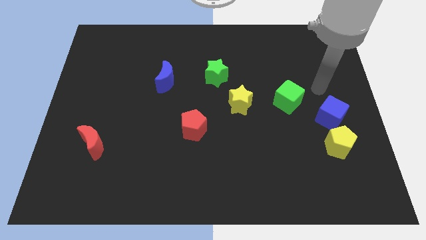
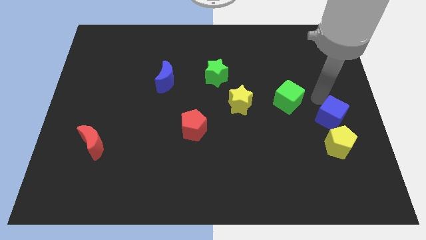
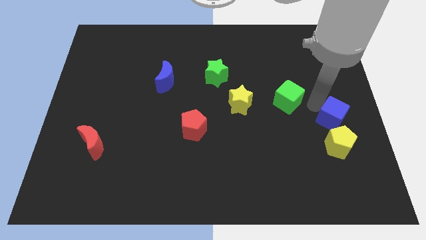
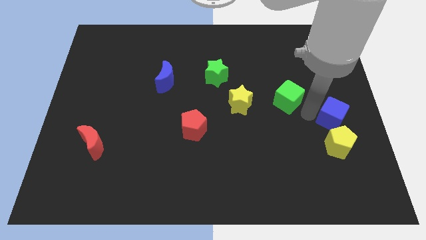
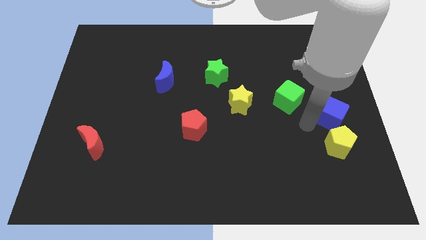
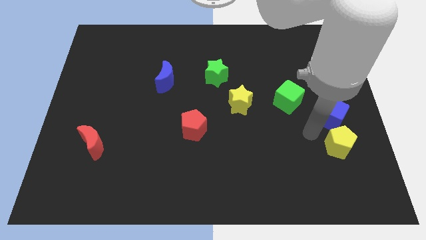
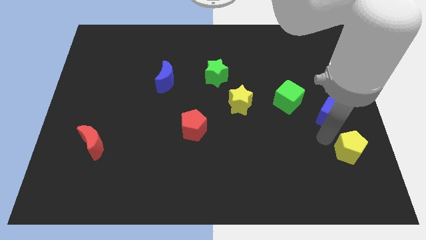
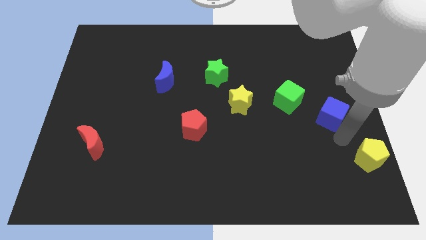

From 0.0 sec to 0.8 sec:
separate the blue cube from the yellow pentagon

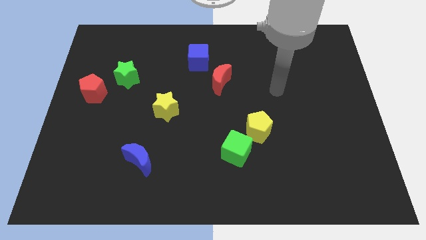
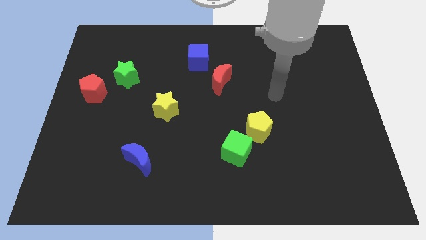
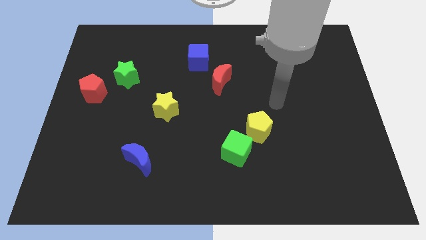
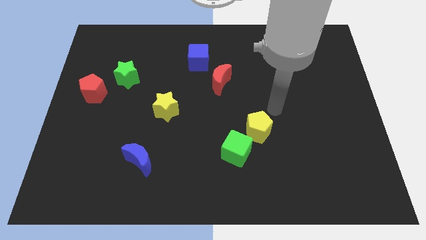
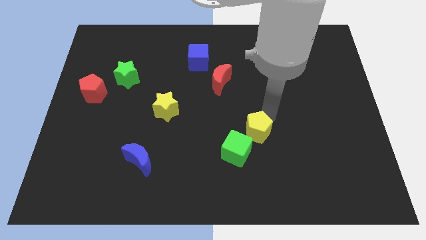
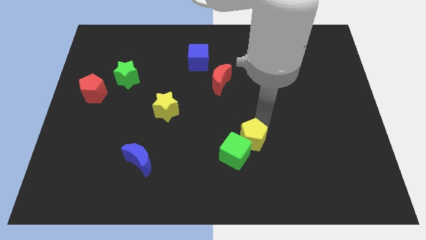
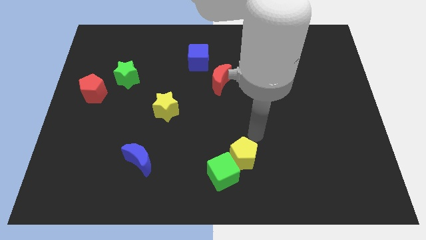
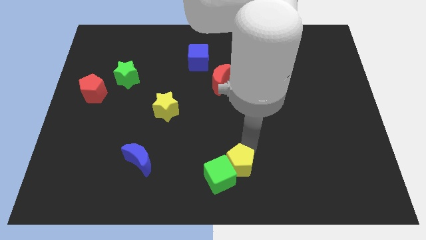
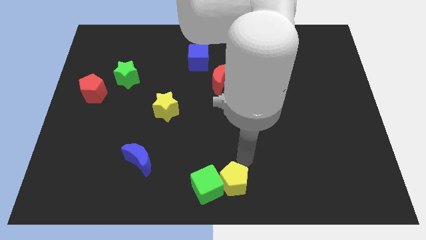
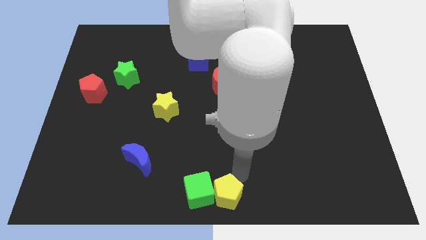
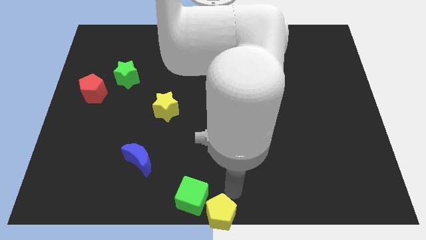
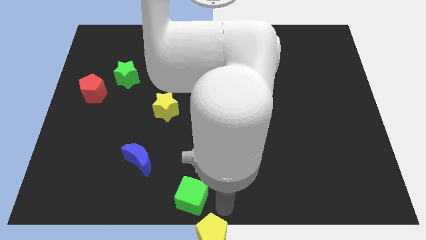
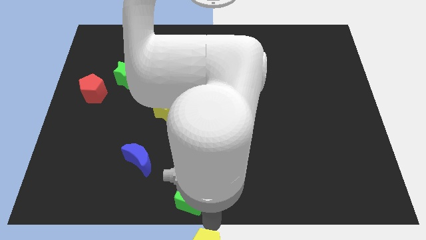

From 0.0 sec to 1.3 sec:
pull the green cube apart from the yellow pentagon

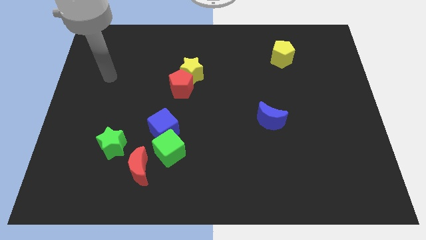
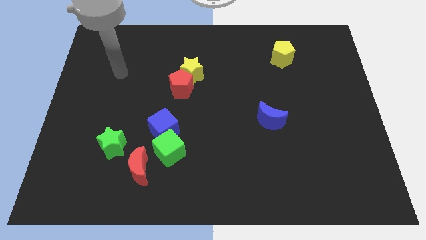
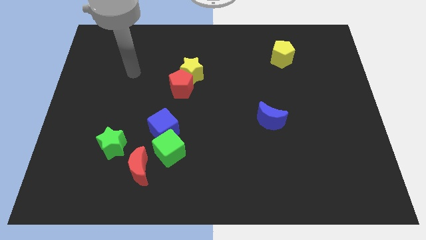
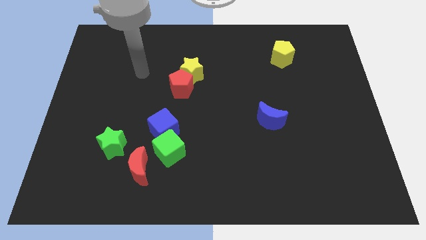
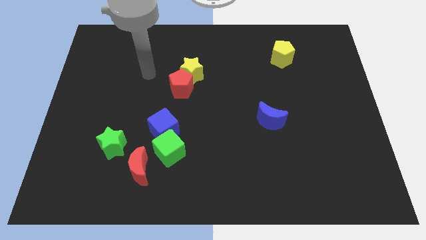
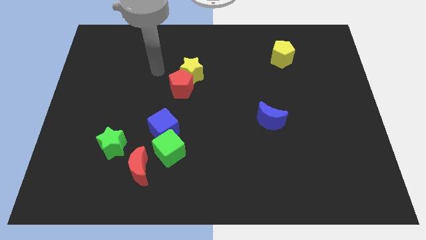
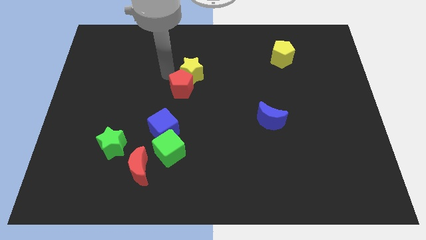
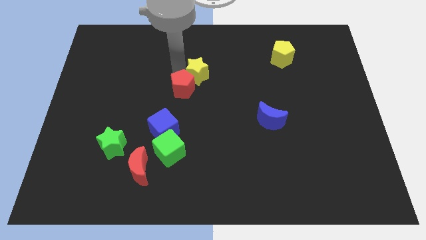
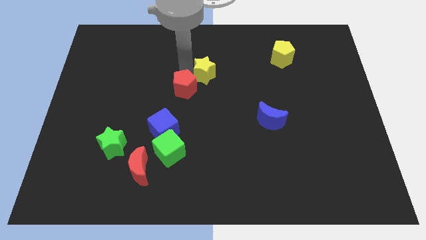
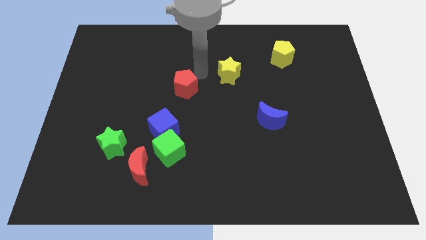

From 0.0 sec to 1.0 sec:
pull the red pentagon apart from the yellow star

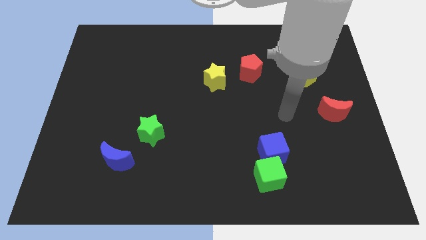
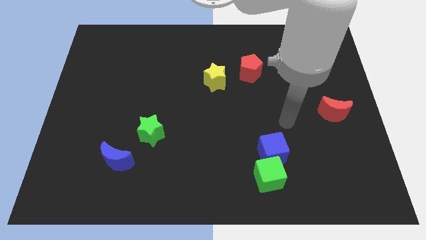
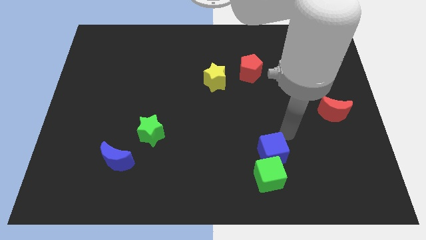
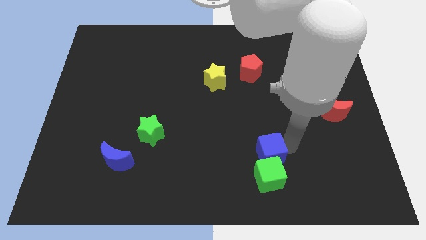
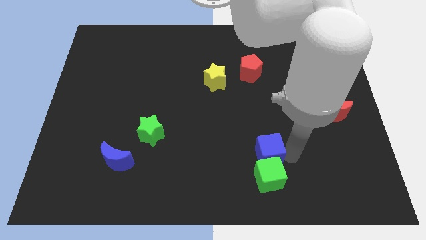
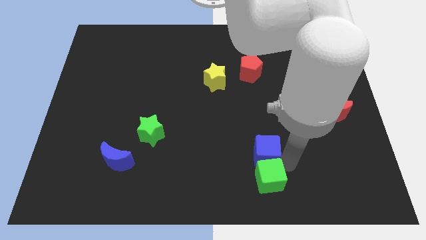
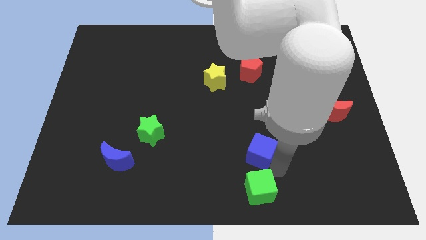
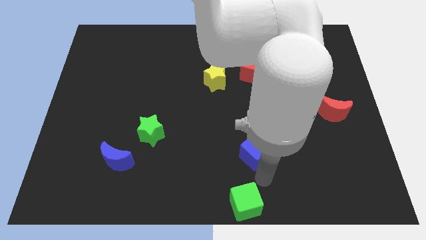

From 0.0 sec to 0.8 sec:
separate the blue cube from the green cube

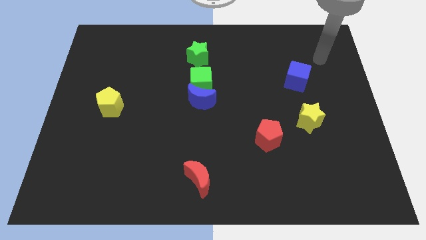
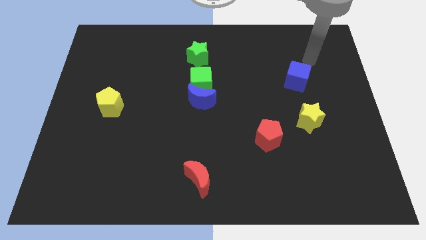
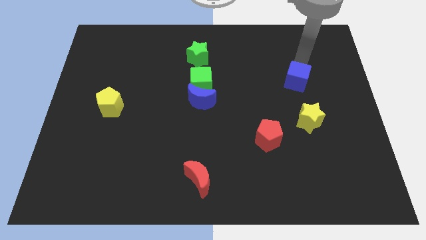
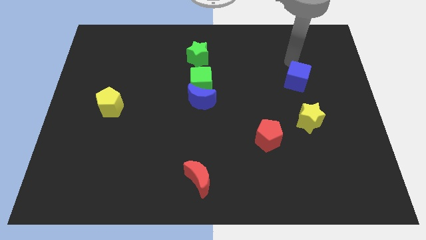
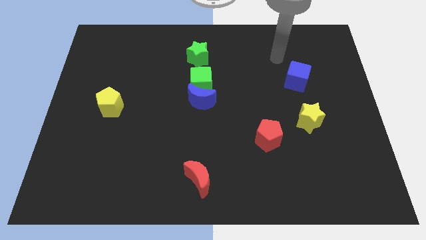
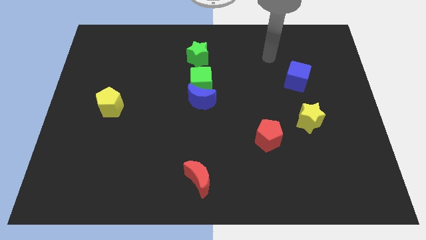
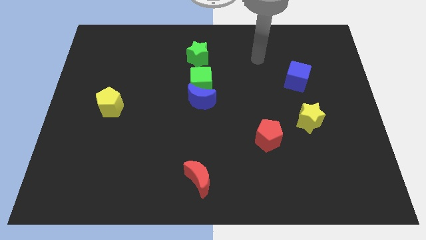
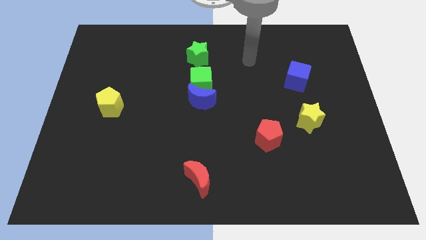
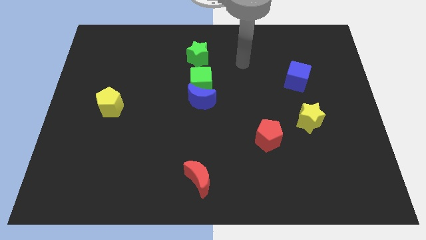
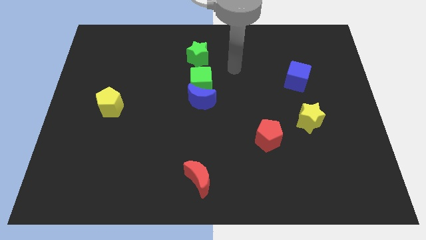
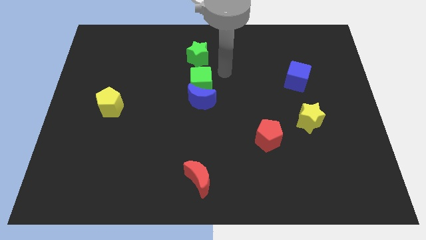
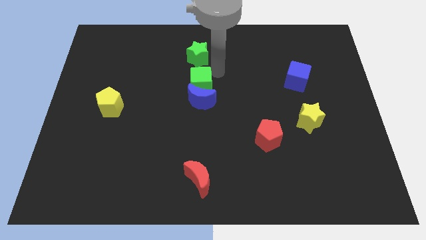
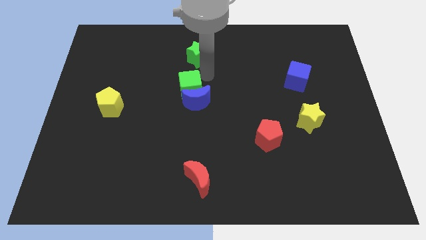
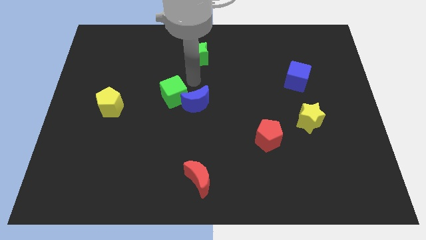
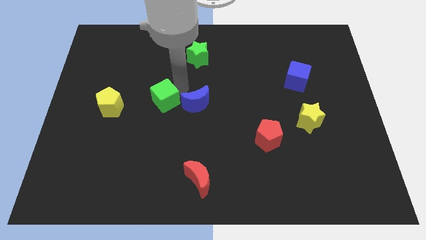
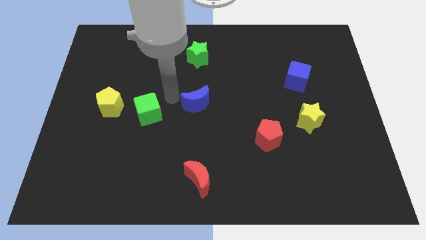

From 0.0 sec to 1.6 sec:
move the blue moon away from the green cube

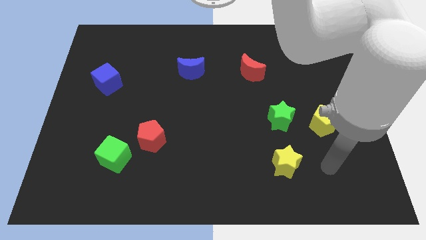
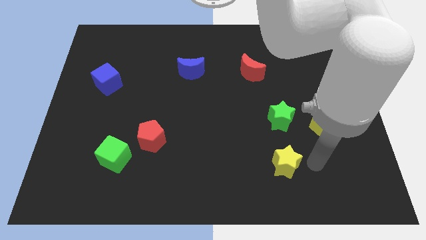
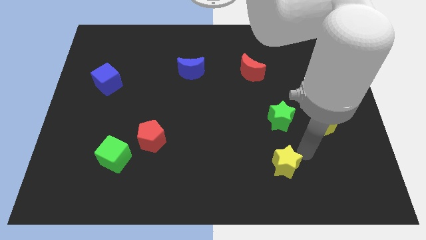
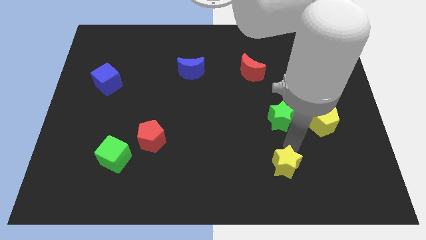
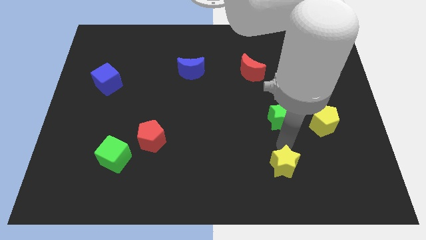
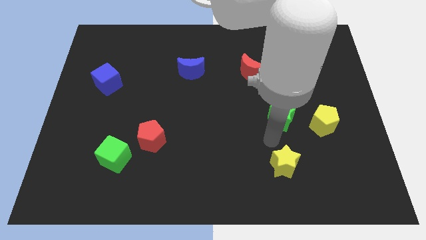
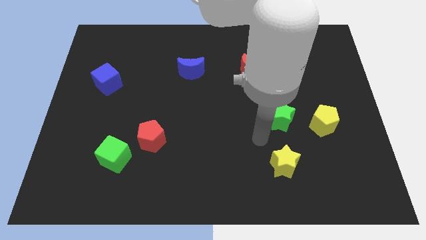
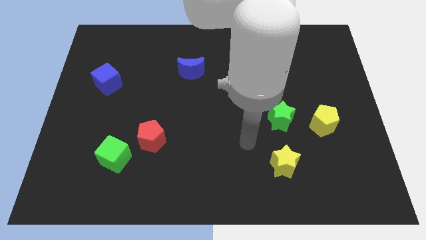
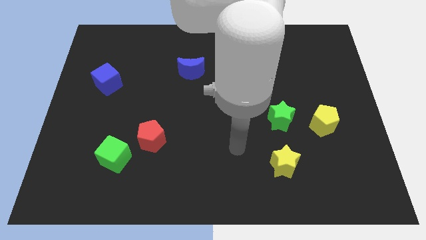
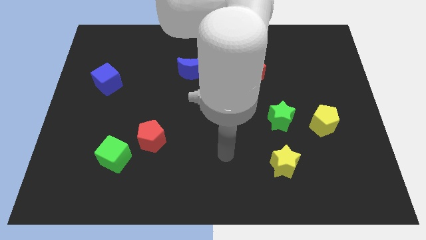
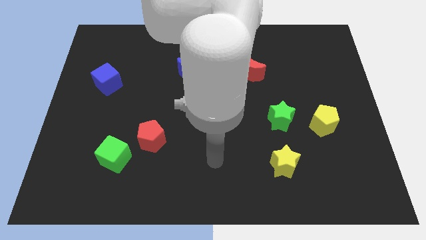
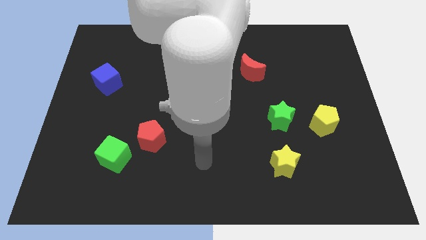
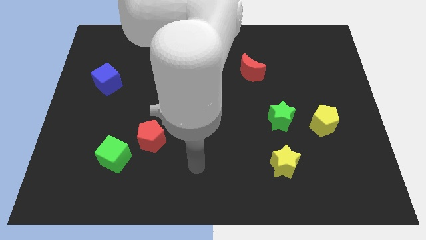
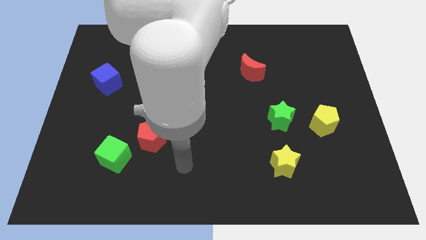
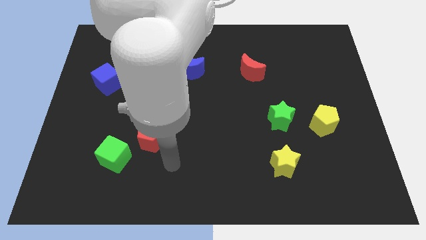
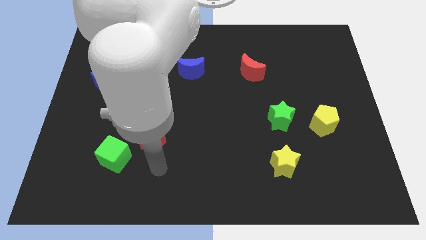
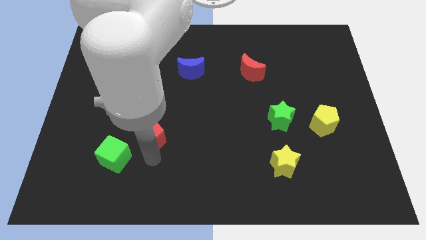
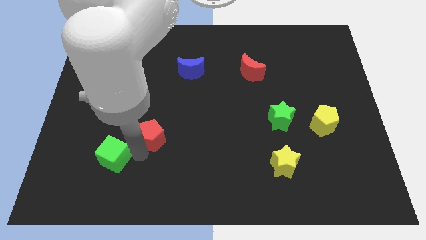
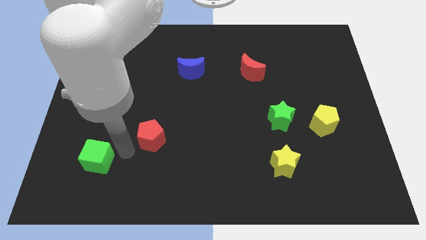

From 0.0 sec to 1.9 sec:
separate the red pentagon from the green cube

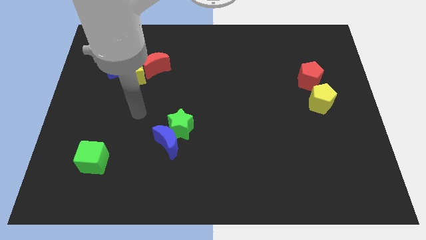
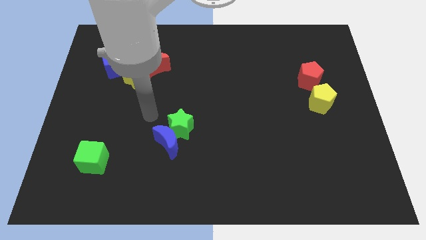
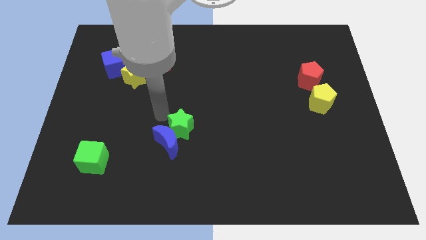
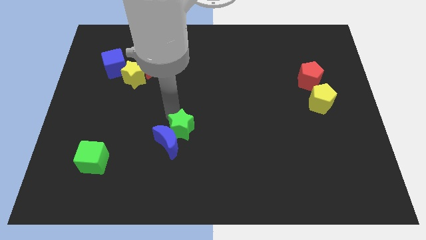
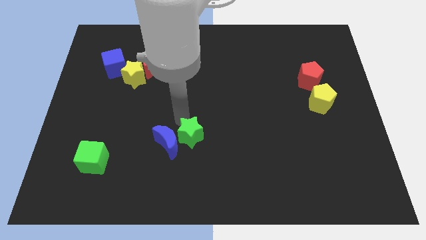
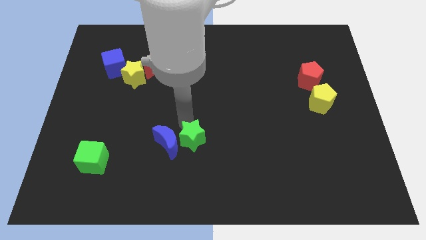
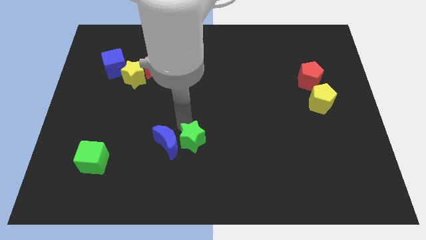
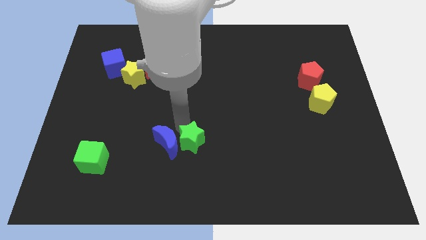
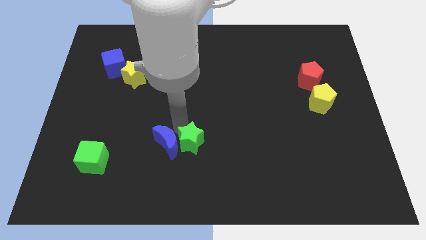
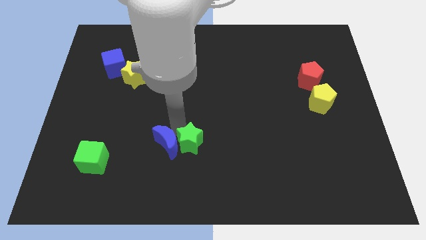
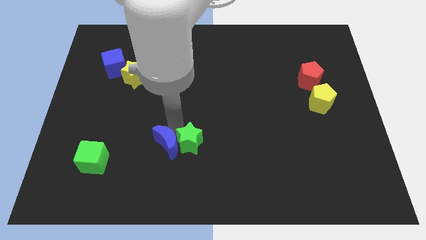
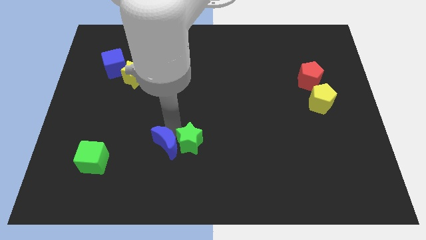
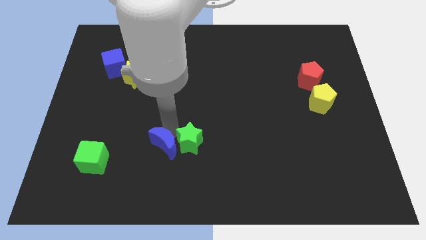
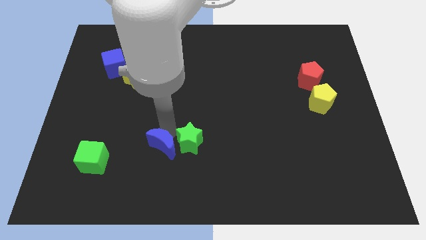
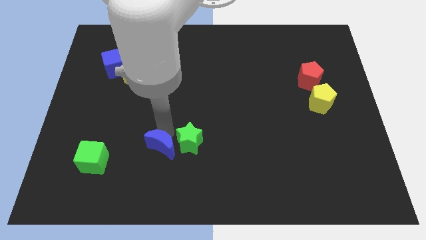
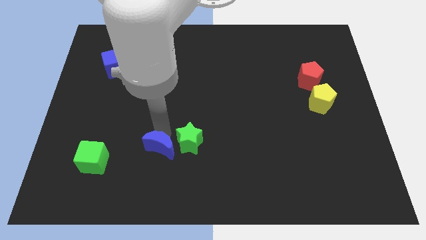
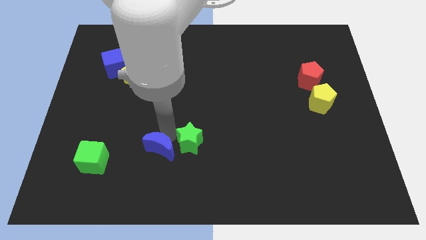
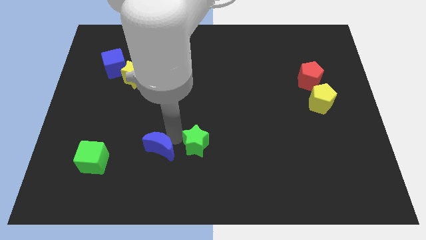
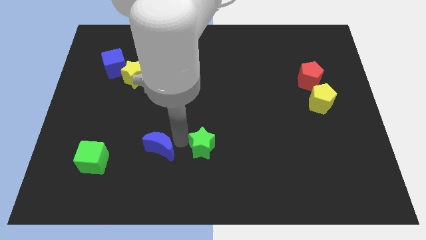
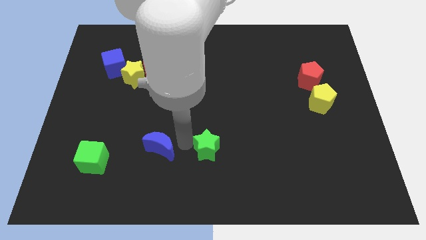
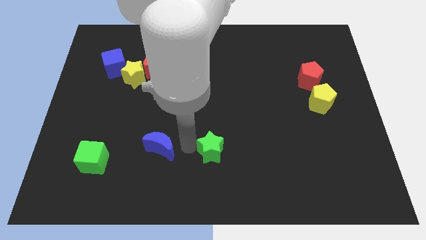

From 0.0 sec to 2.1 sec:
move the blue moon away from the green star
